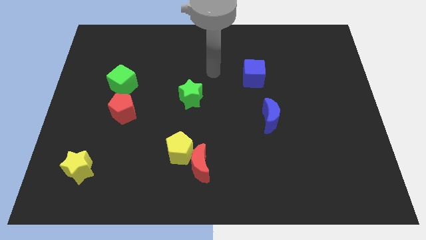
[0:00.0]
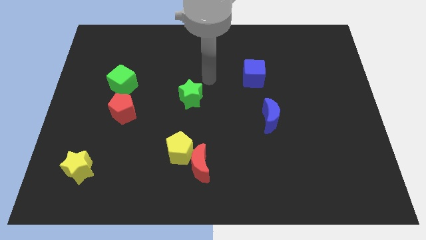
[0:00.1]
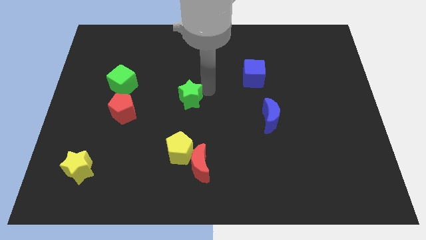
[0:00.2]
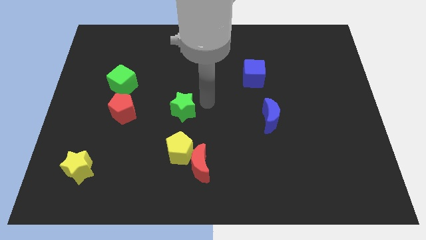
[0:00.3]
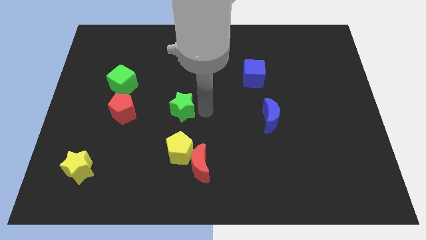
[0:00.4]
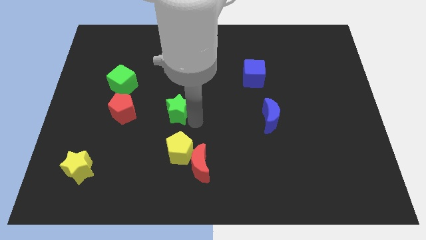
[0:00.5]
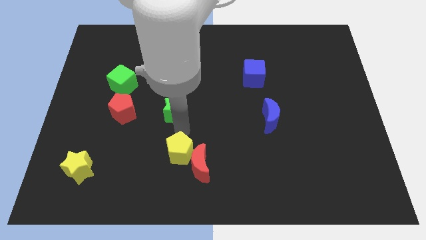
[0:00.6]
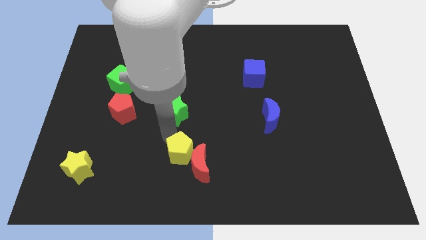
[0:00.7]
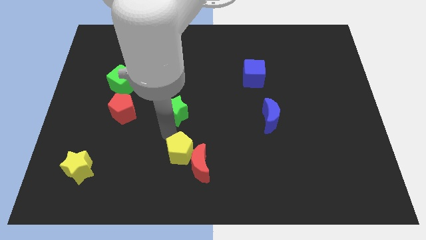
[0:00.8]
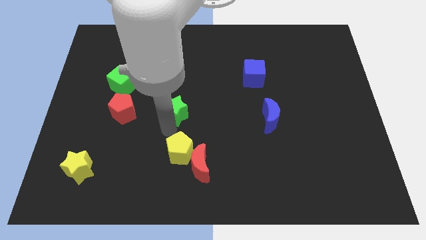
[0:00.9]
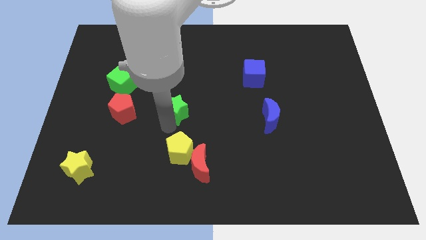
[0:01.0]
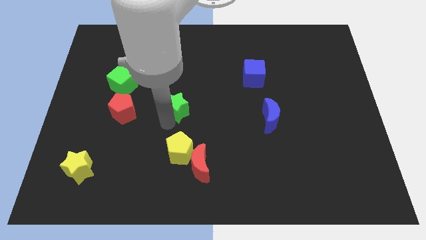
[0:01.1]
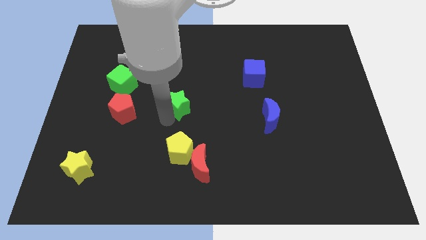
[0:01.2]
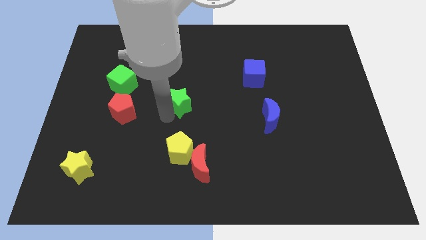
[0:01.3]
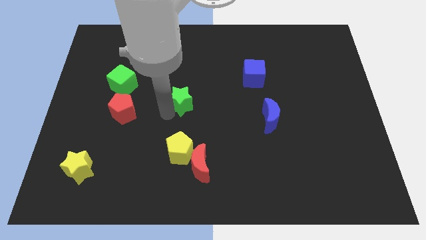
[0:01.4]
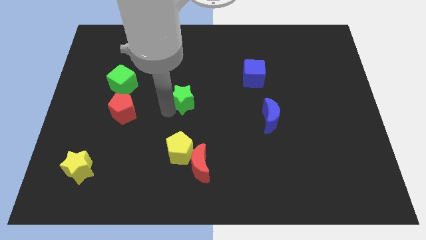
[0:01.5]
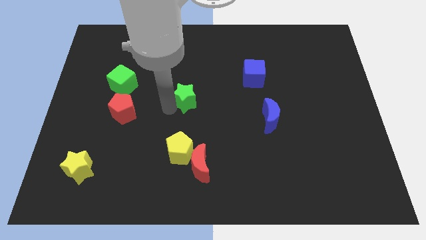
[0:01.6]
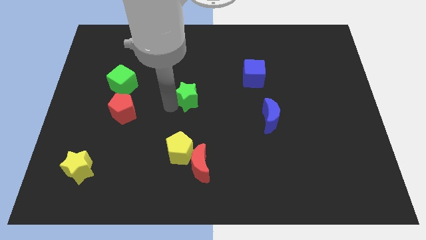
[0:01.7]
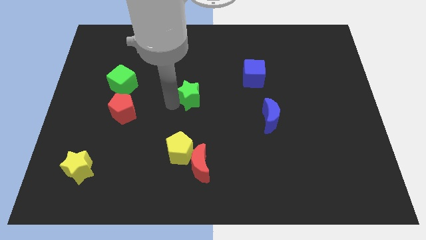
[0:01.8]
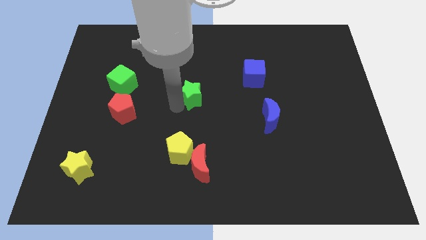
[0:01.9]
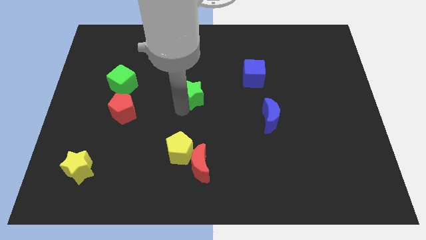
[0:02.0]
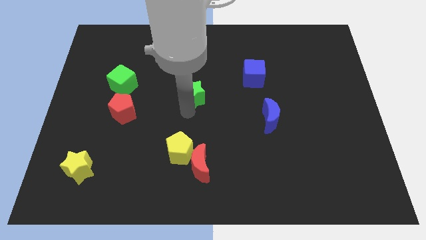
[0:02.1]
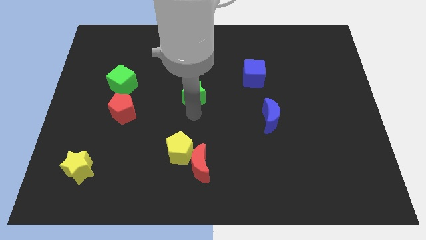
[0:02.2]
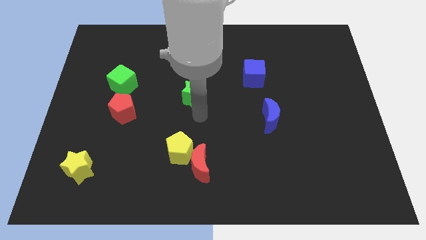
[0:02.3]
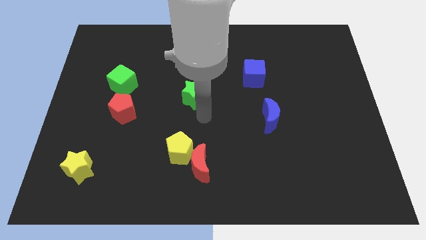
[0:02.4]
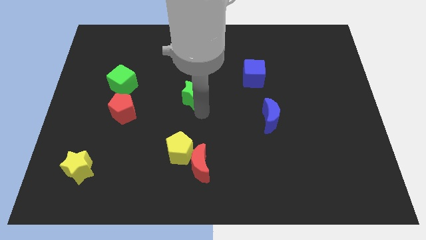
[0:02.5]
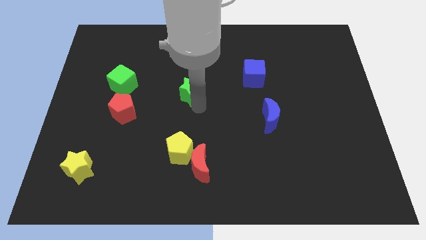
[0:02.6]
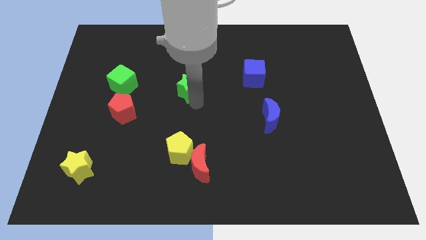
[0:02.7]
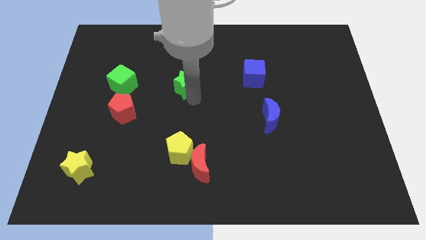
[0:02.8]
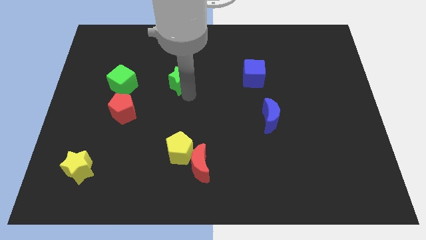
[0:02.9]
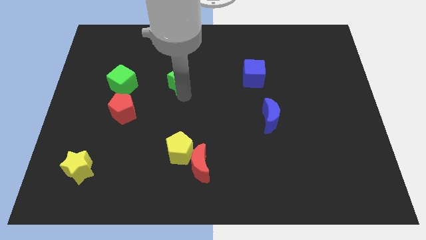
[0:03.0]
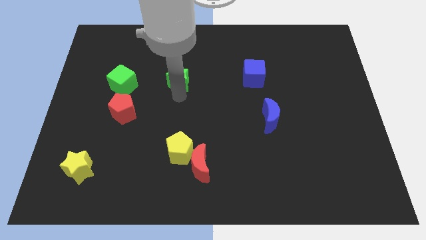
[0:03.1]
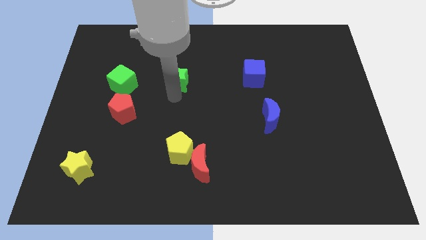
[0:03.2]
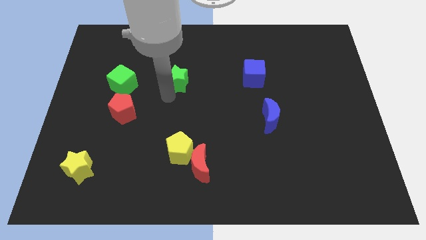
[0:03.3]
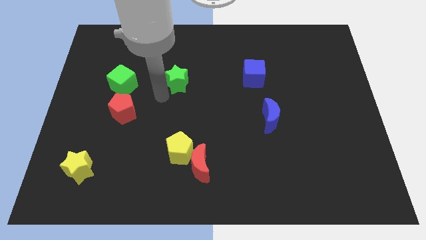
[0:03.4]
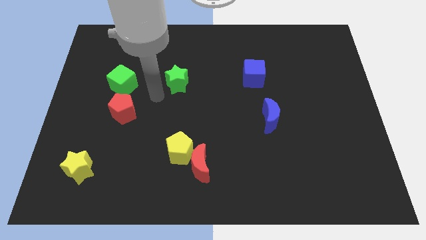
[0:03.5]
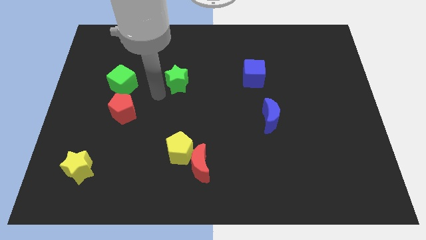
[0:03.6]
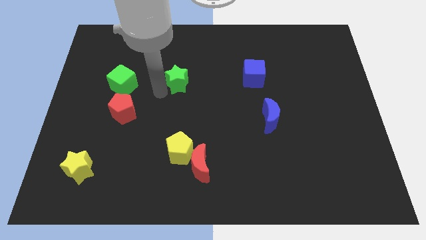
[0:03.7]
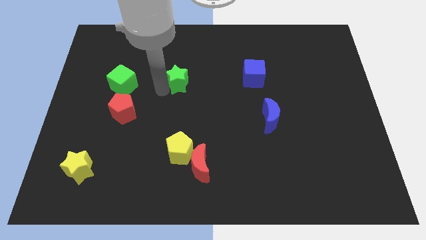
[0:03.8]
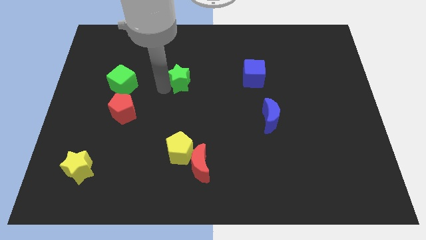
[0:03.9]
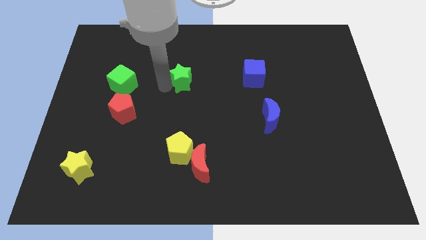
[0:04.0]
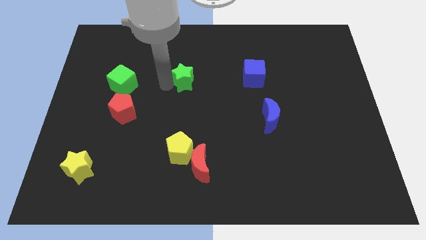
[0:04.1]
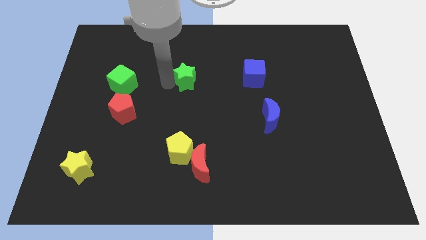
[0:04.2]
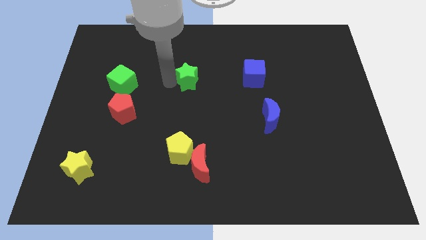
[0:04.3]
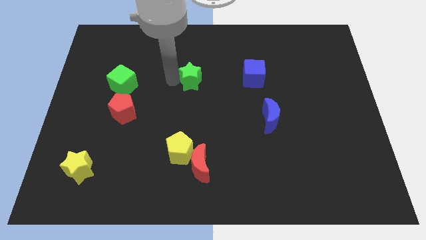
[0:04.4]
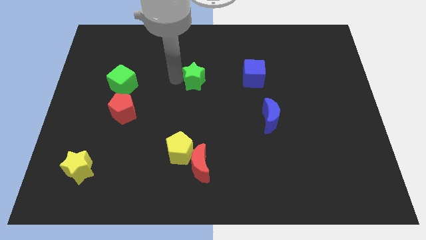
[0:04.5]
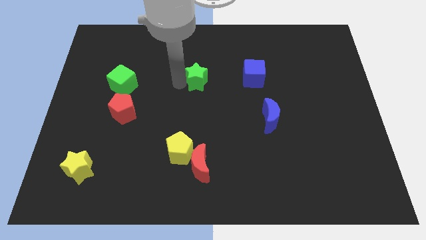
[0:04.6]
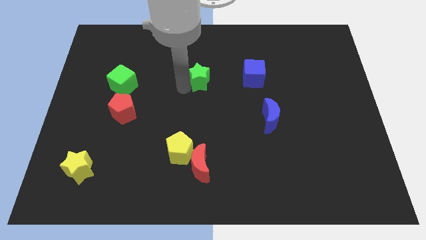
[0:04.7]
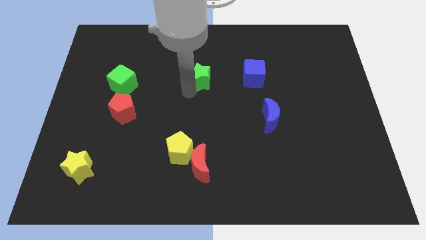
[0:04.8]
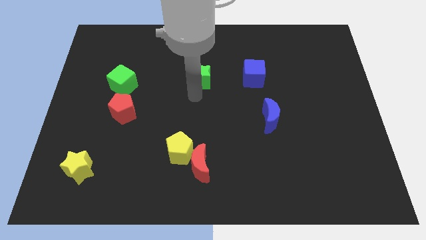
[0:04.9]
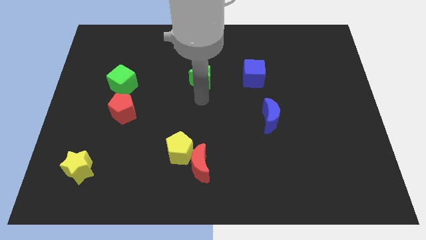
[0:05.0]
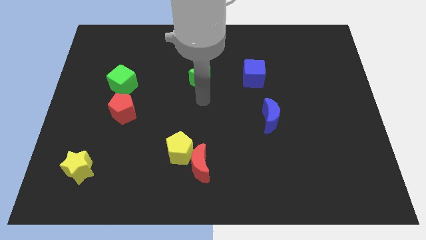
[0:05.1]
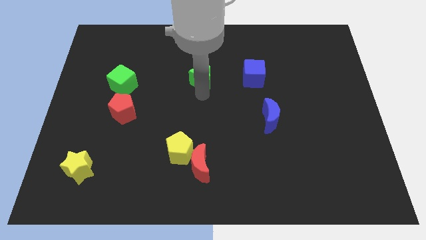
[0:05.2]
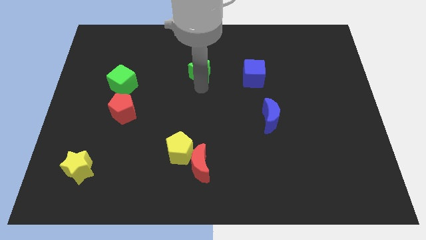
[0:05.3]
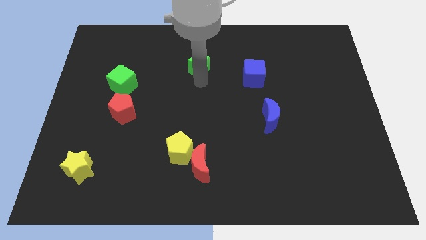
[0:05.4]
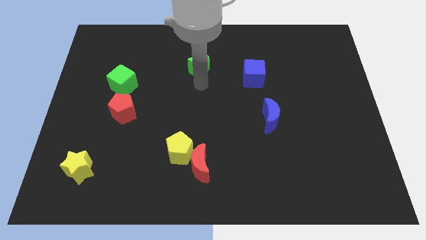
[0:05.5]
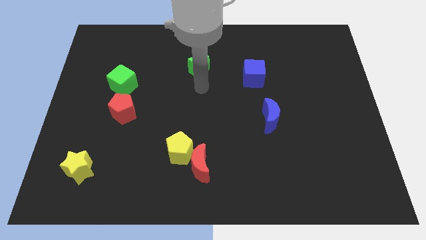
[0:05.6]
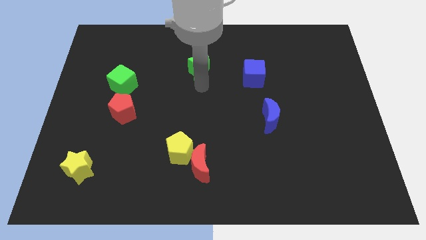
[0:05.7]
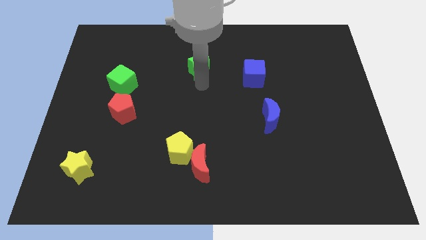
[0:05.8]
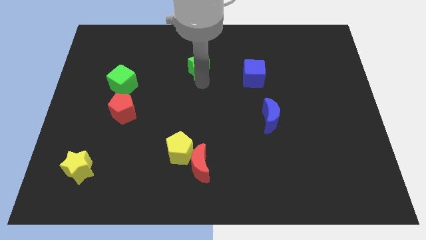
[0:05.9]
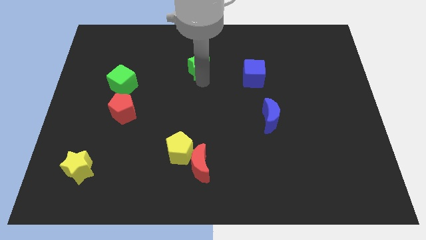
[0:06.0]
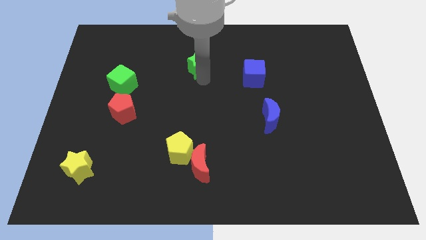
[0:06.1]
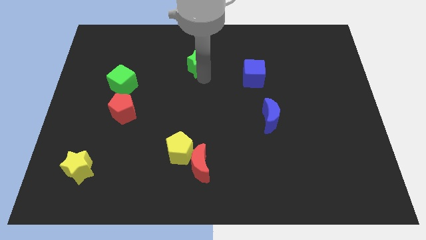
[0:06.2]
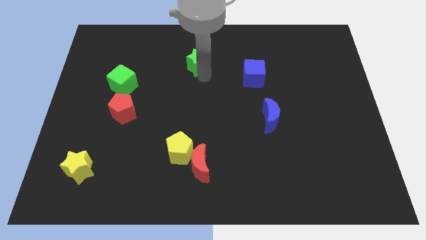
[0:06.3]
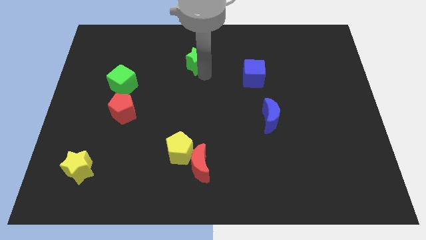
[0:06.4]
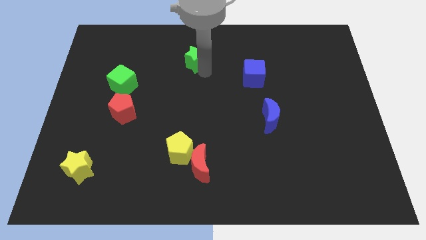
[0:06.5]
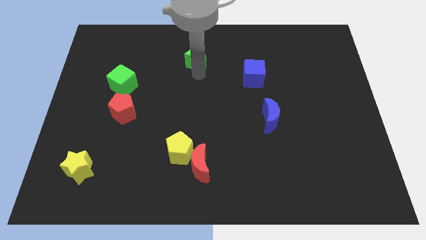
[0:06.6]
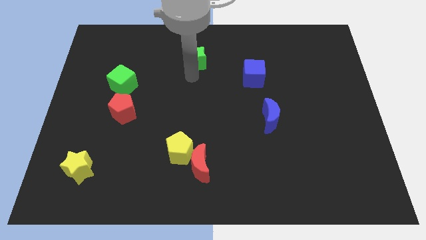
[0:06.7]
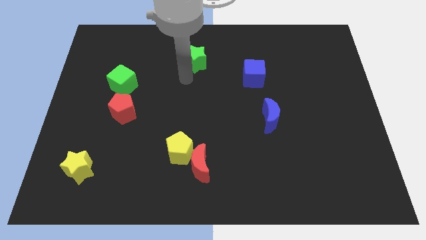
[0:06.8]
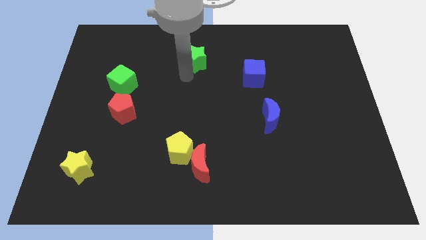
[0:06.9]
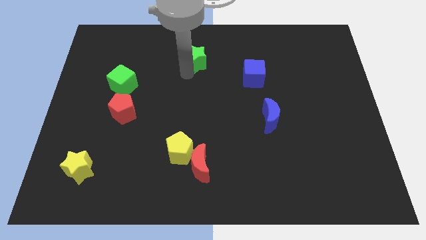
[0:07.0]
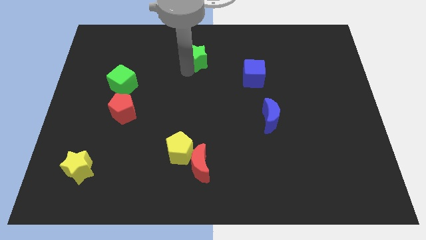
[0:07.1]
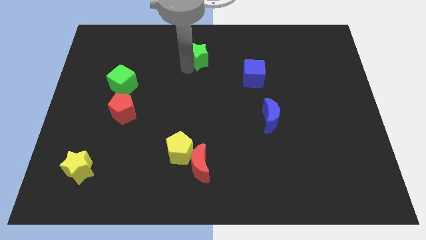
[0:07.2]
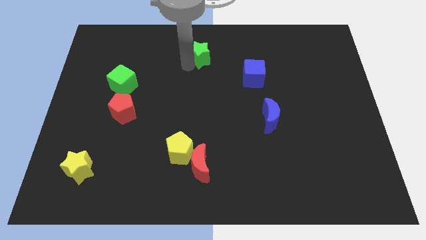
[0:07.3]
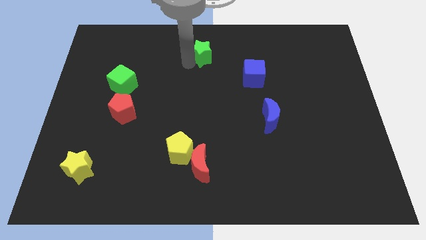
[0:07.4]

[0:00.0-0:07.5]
move the green star to the top

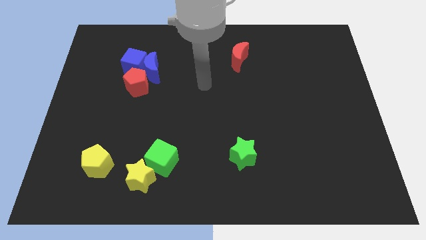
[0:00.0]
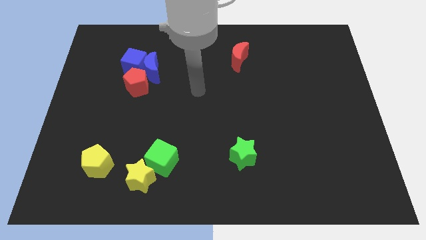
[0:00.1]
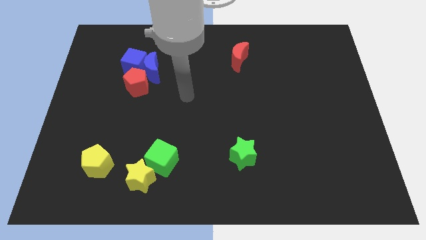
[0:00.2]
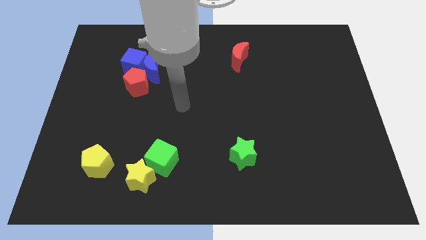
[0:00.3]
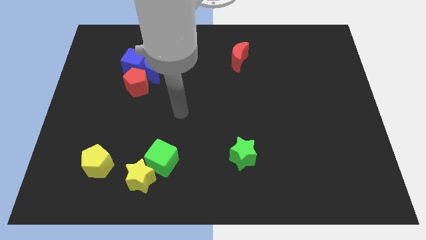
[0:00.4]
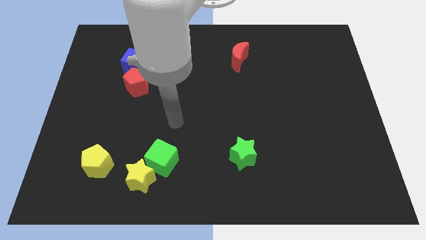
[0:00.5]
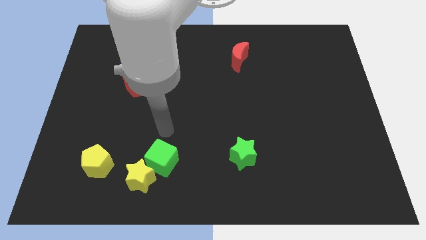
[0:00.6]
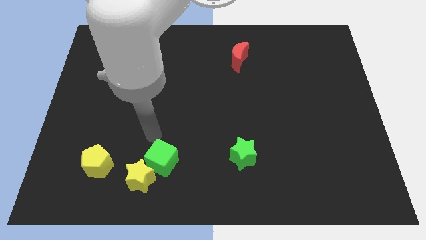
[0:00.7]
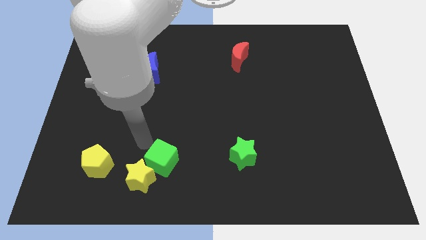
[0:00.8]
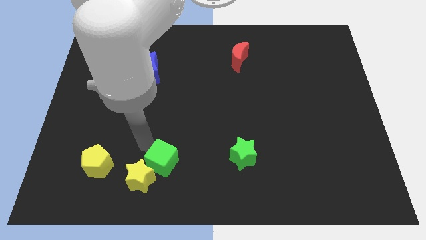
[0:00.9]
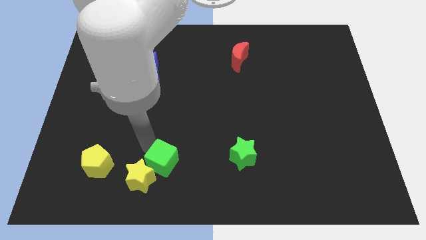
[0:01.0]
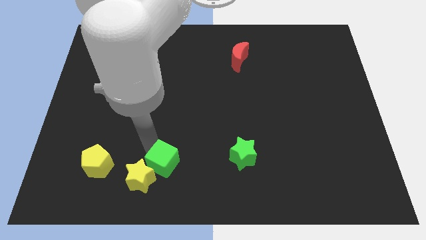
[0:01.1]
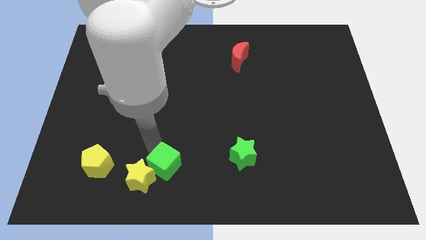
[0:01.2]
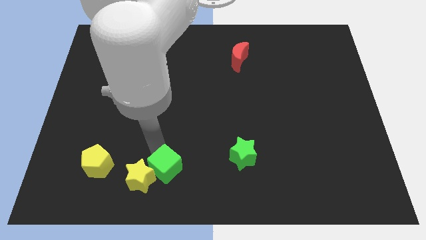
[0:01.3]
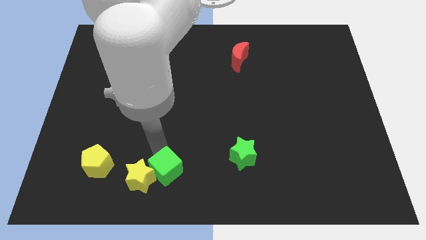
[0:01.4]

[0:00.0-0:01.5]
push the green cube to the bottom side
